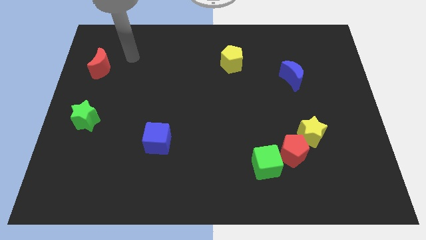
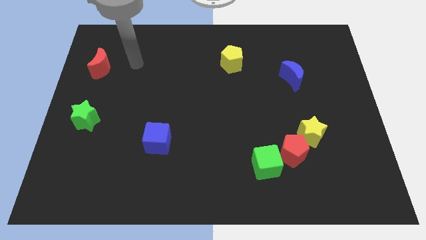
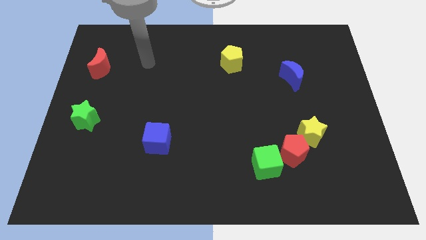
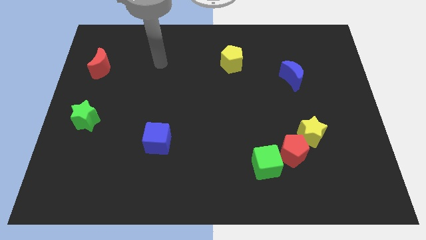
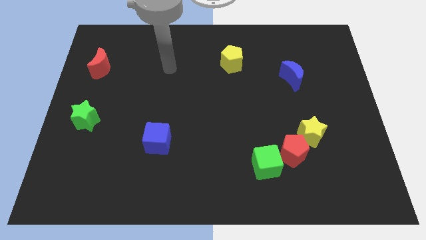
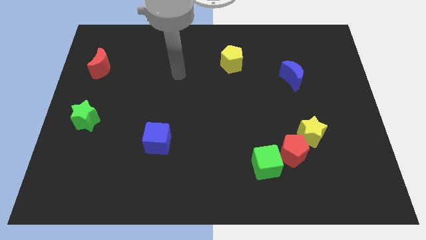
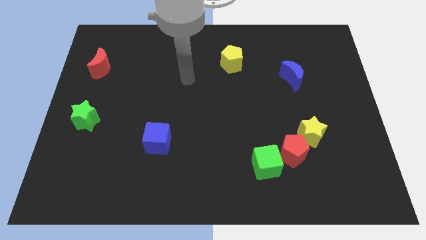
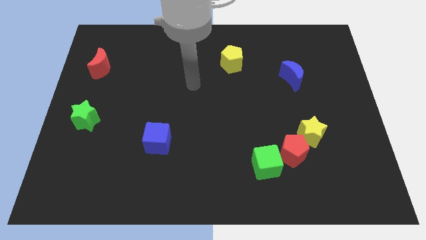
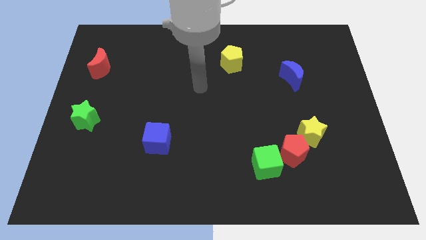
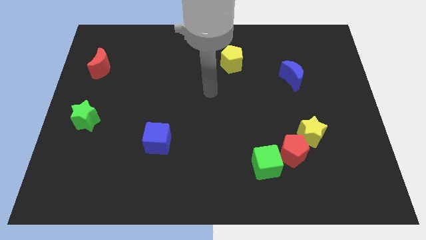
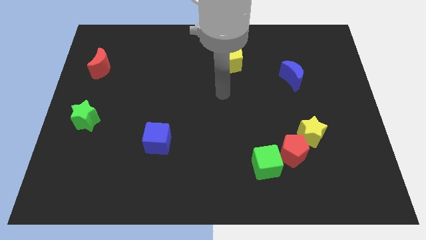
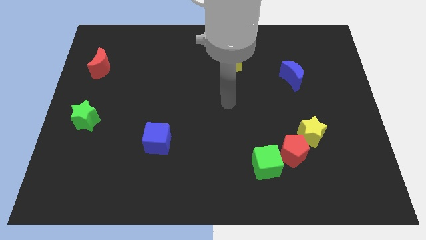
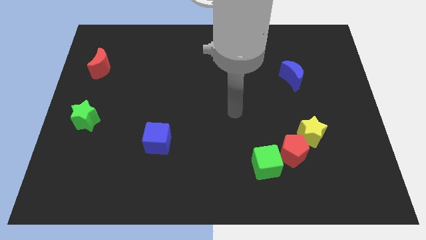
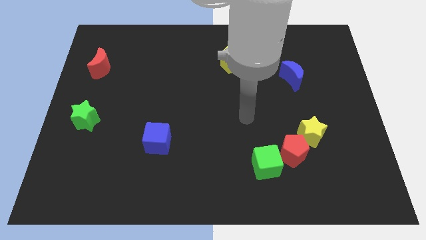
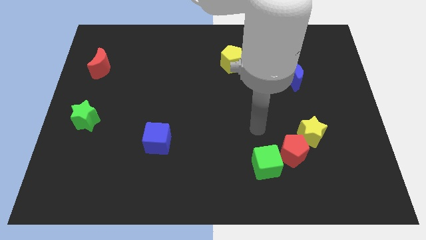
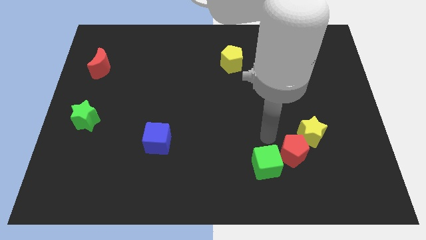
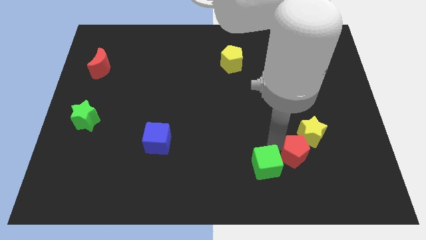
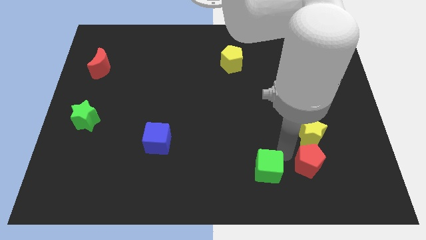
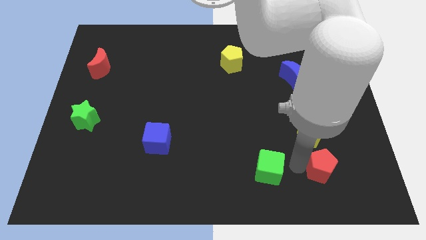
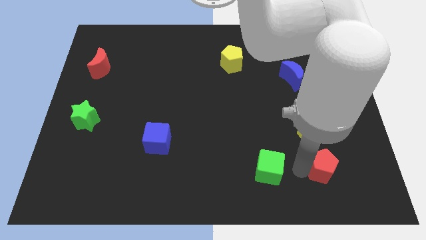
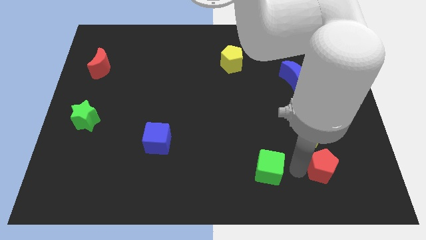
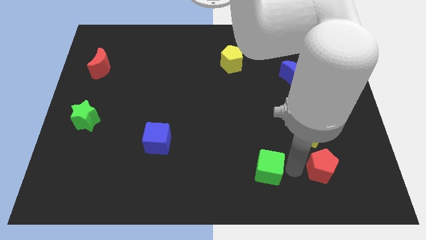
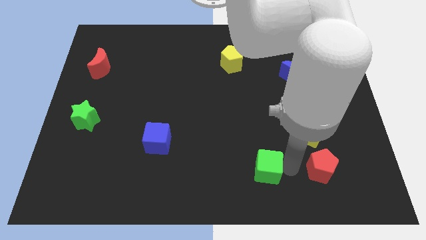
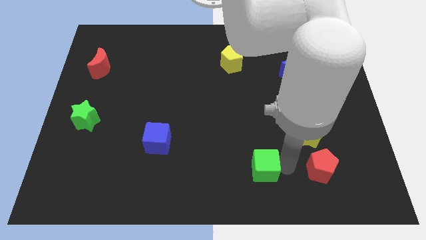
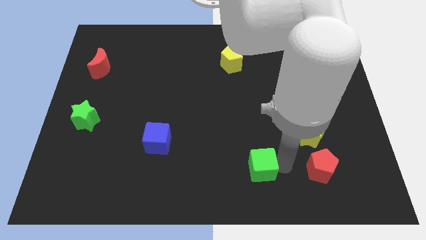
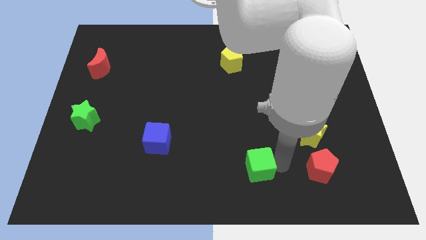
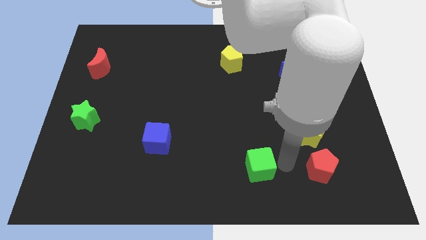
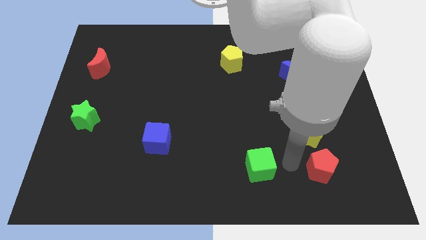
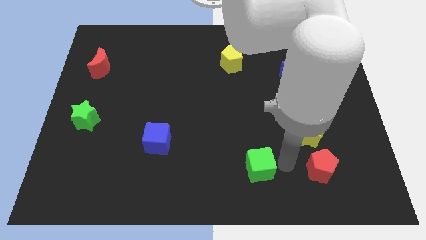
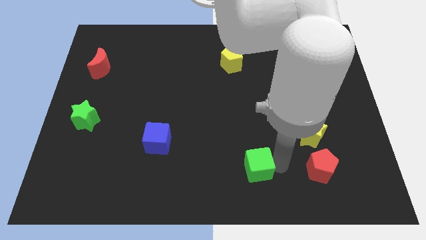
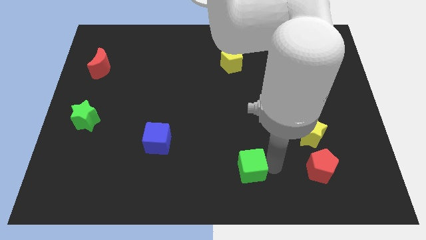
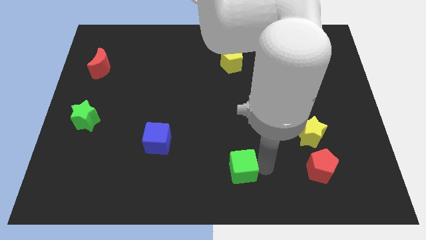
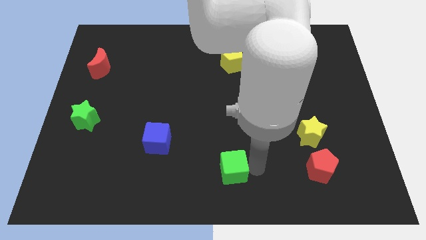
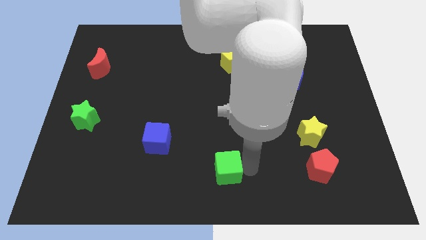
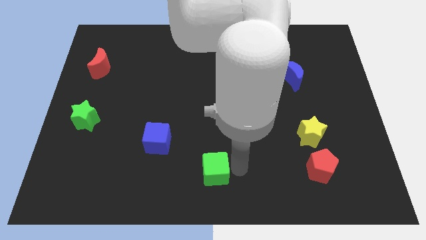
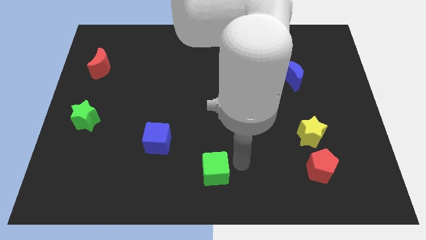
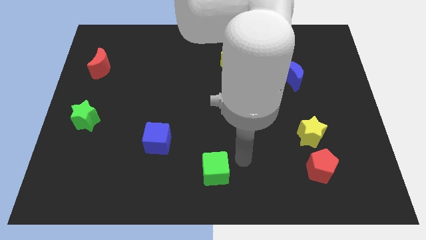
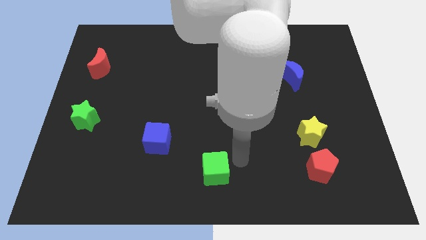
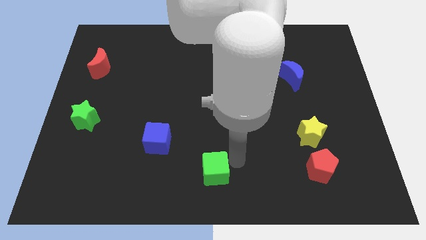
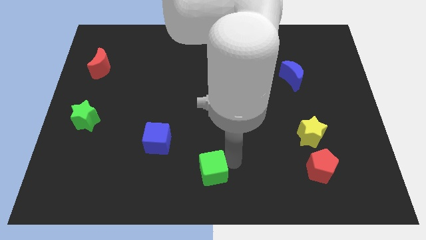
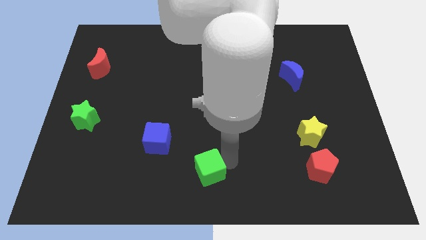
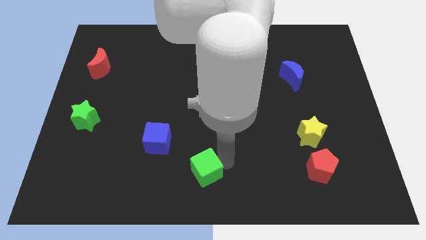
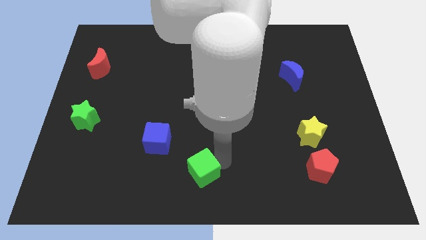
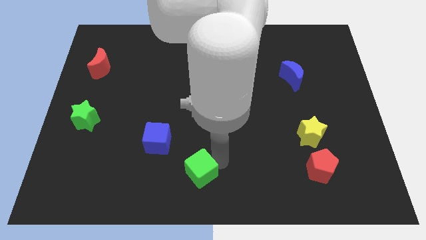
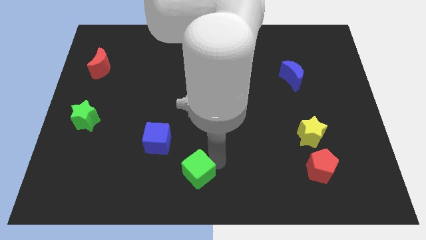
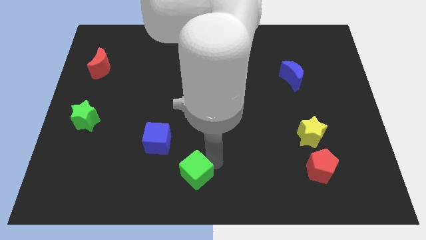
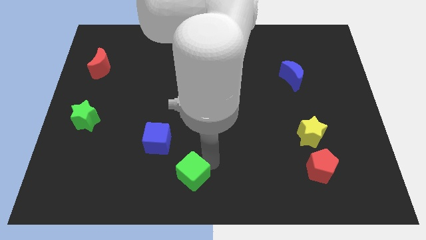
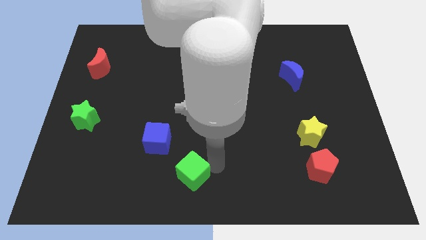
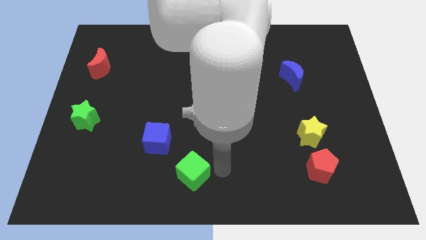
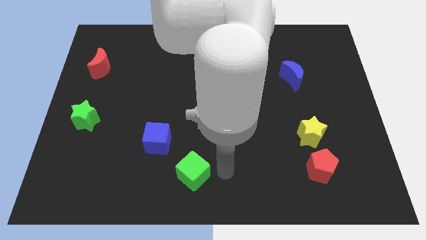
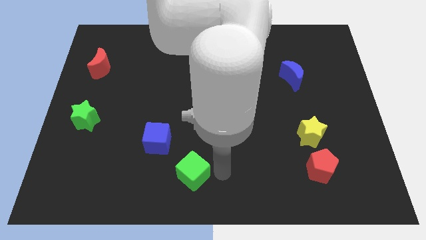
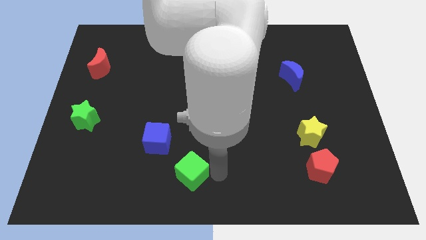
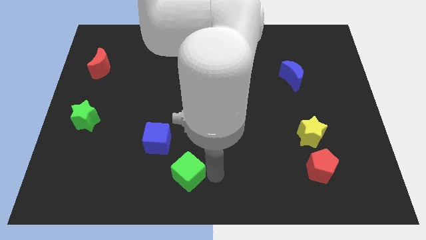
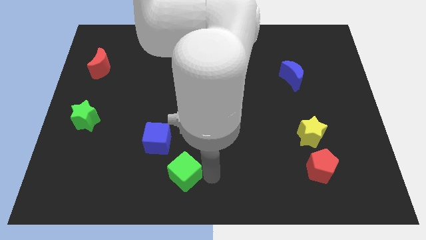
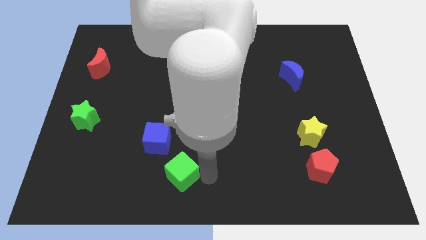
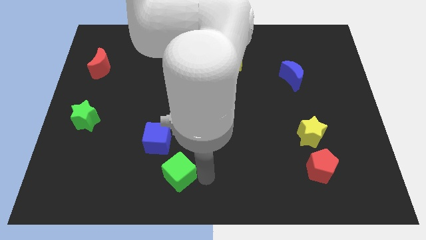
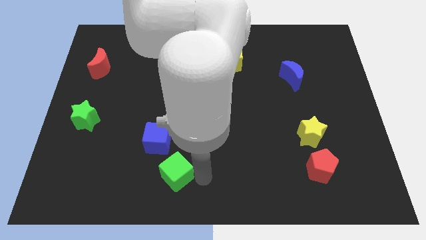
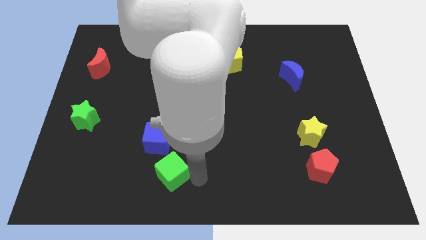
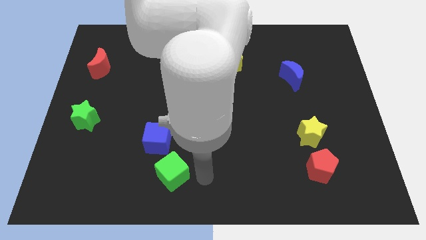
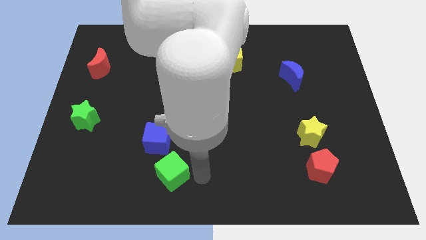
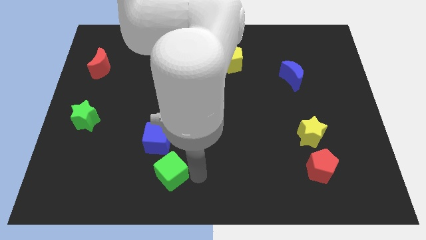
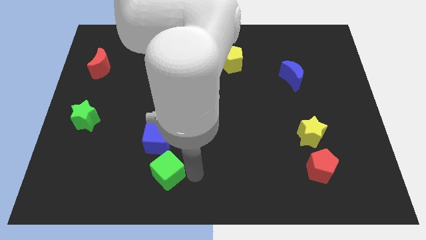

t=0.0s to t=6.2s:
push the green cube to the left

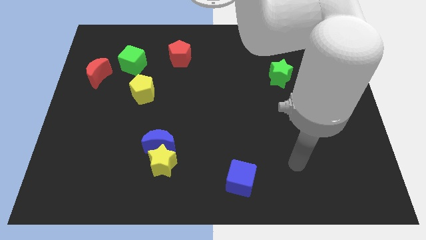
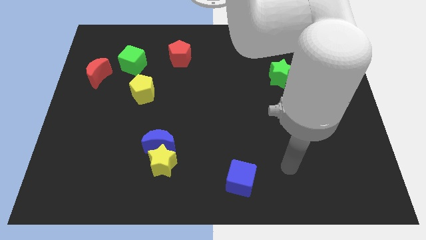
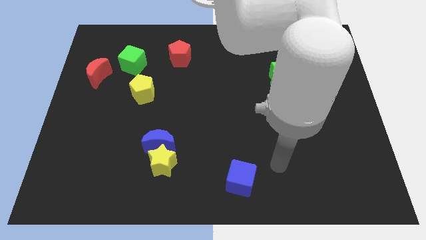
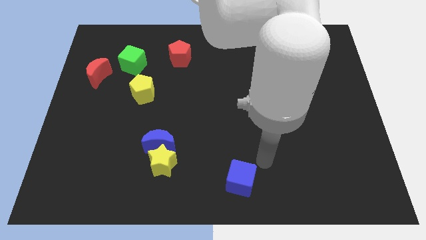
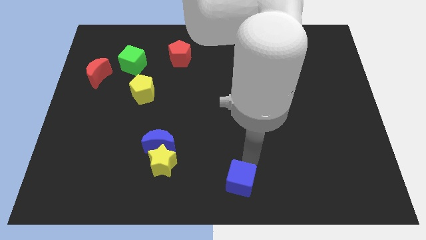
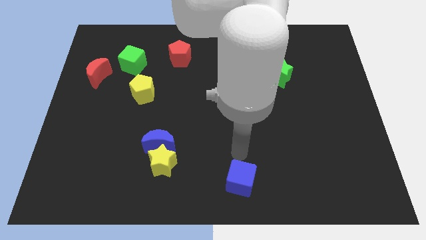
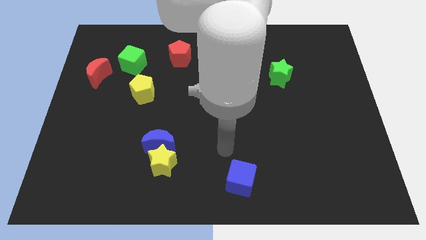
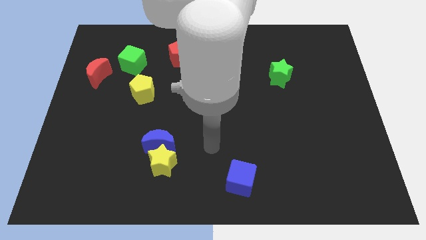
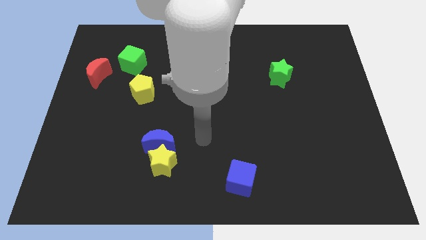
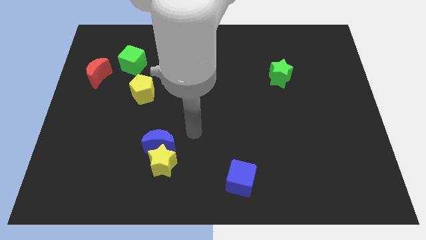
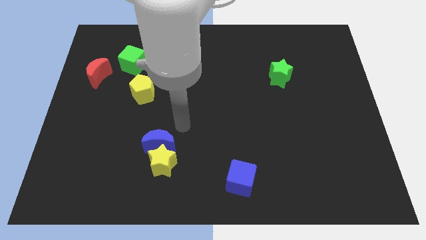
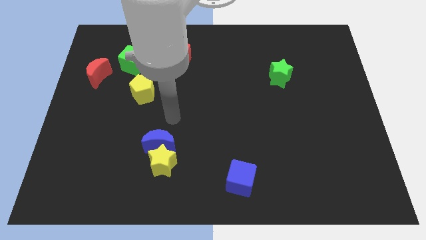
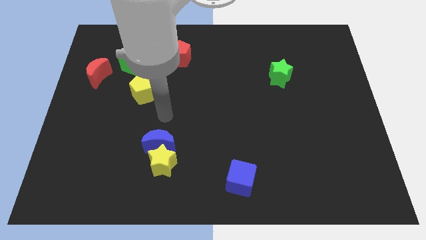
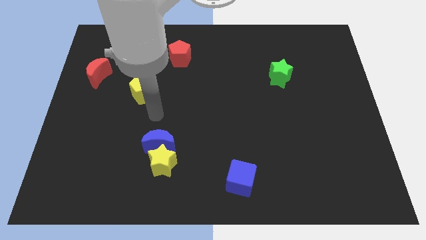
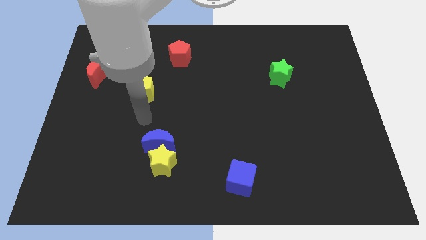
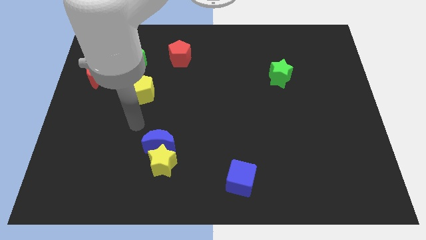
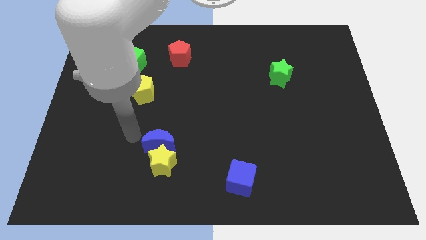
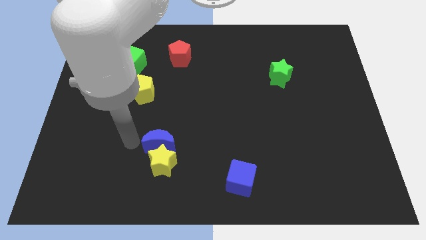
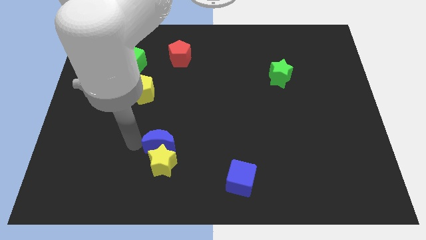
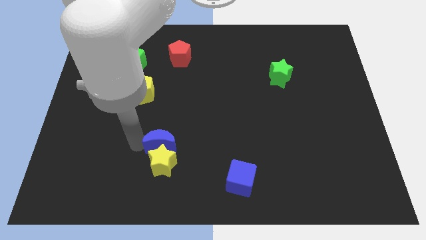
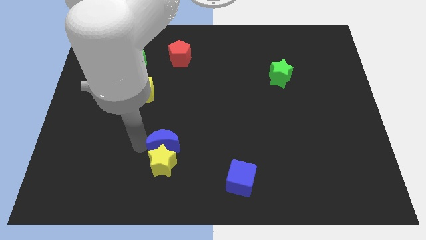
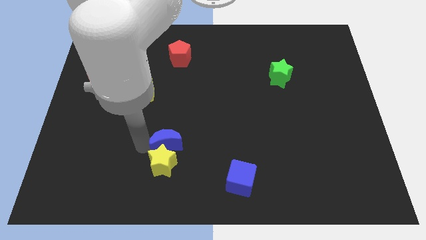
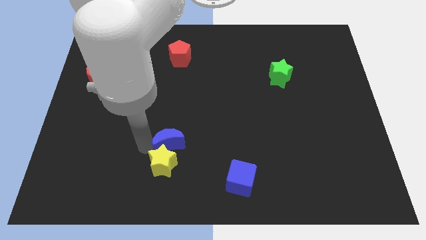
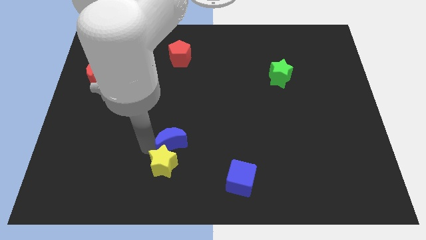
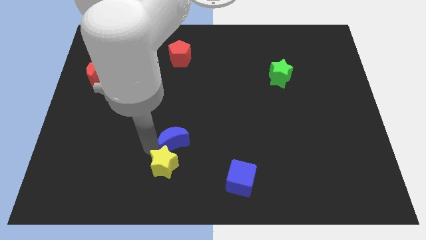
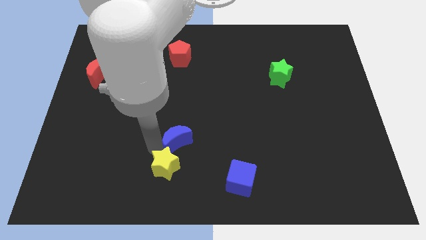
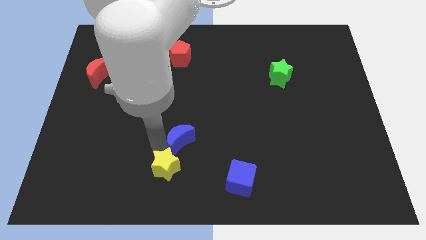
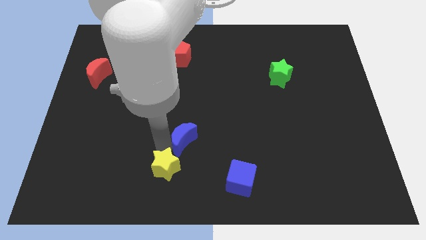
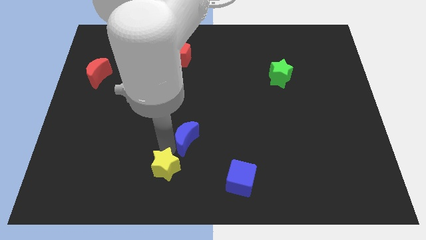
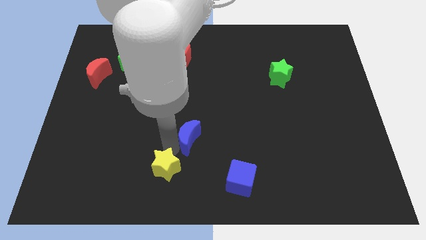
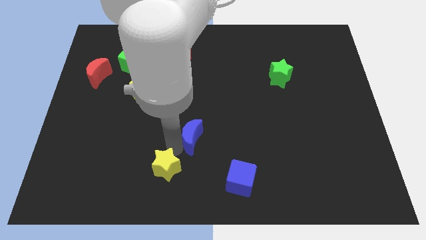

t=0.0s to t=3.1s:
move the blue moon somewhat to the right
